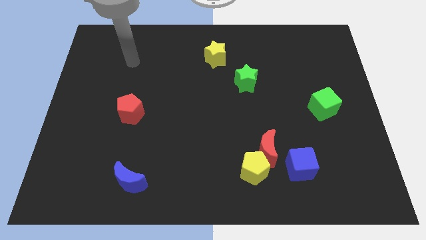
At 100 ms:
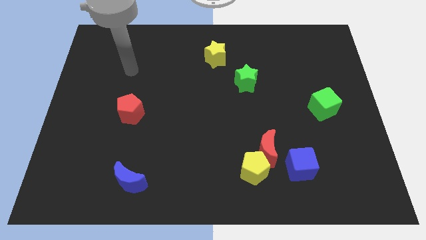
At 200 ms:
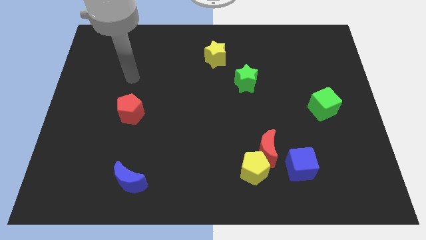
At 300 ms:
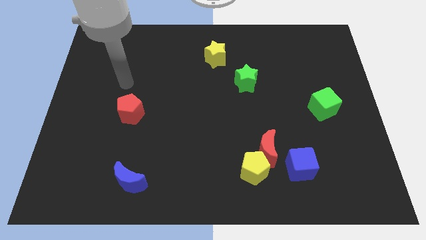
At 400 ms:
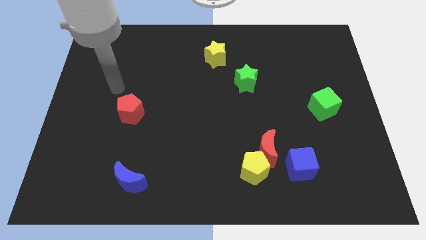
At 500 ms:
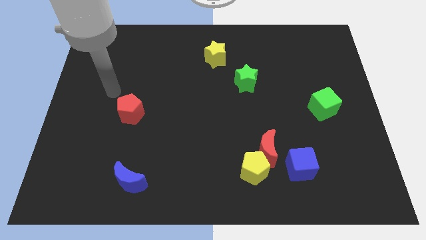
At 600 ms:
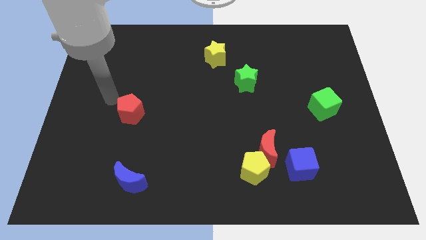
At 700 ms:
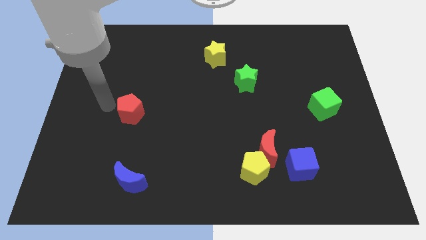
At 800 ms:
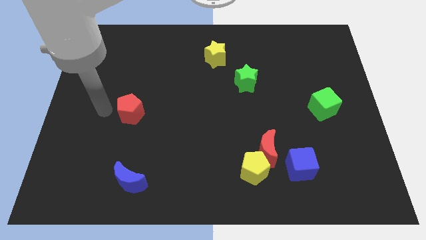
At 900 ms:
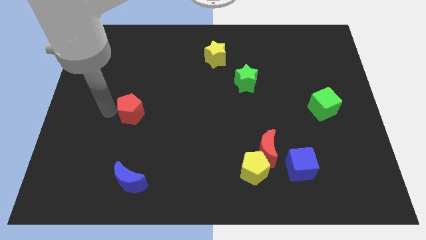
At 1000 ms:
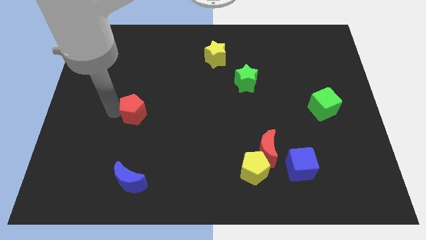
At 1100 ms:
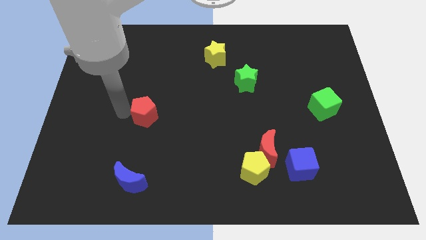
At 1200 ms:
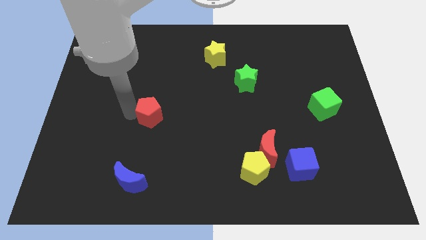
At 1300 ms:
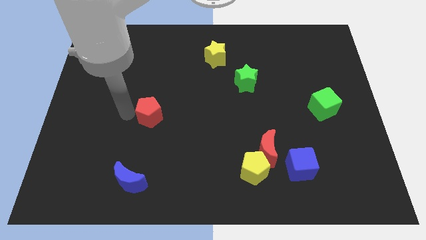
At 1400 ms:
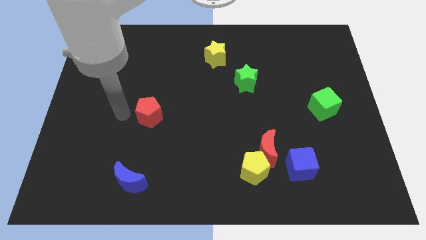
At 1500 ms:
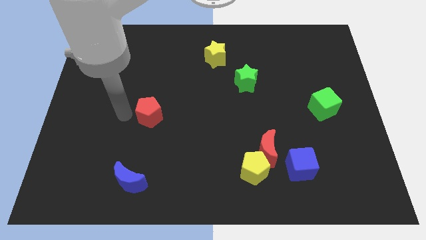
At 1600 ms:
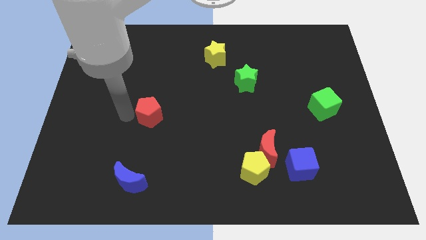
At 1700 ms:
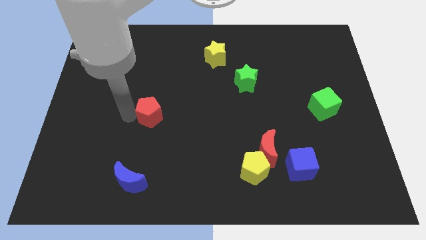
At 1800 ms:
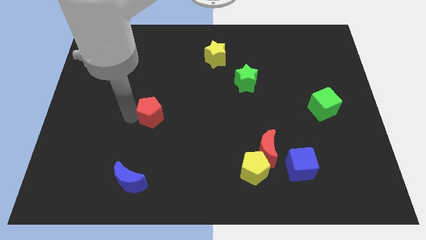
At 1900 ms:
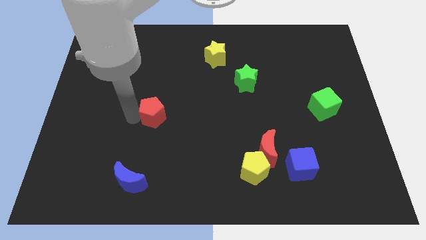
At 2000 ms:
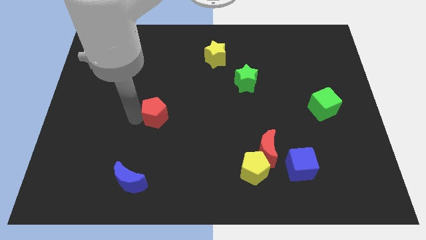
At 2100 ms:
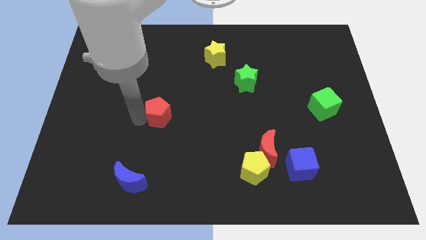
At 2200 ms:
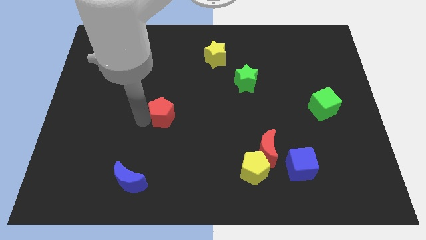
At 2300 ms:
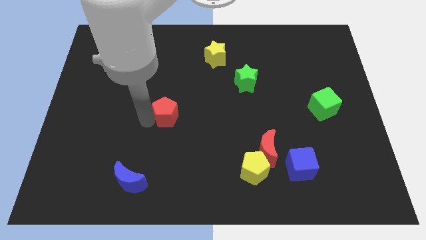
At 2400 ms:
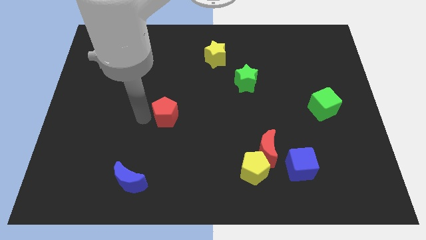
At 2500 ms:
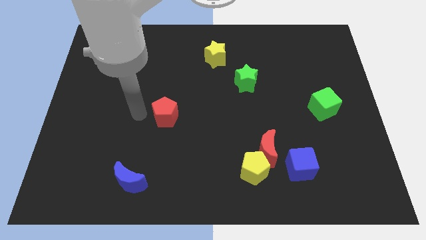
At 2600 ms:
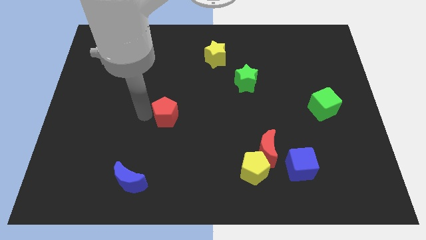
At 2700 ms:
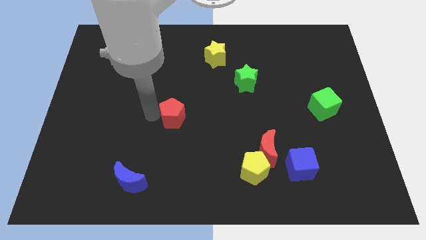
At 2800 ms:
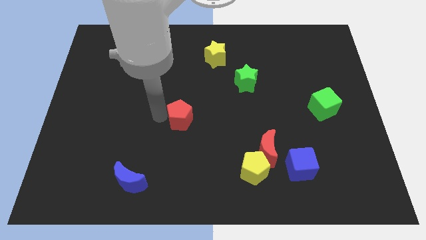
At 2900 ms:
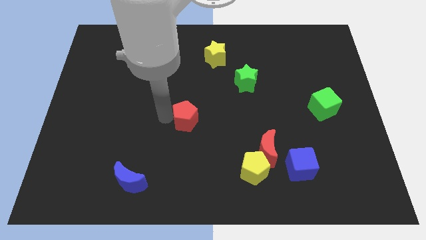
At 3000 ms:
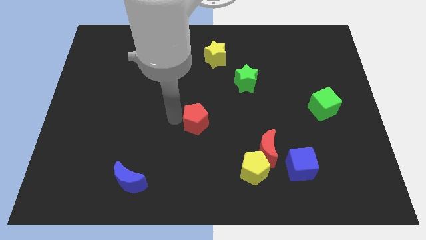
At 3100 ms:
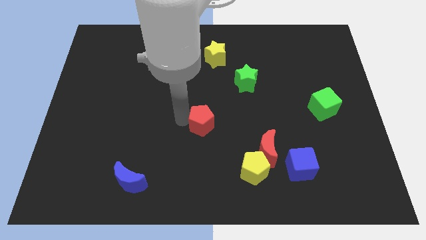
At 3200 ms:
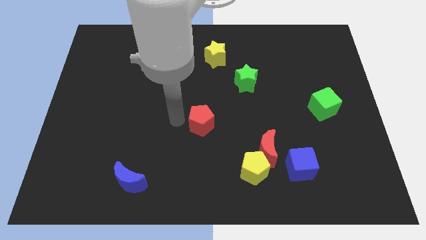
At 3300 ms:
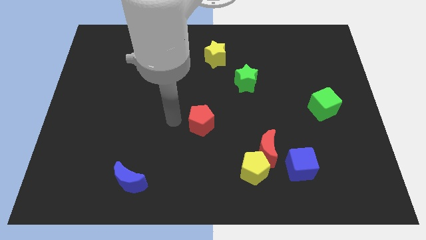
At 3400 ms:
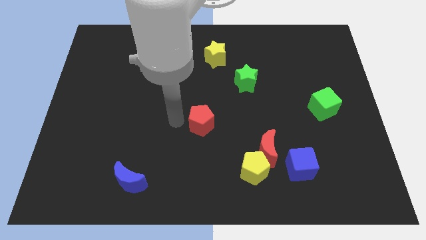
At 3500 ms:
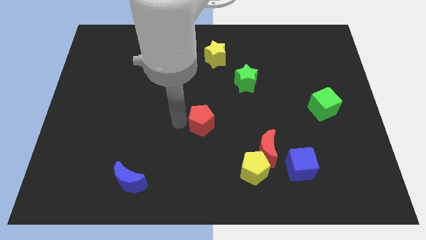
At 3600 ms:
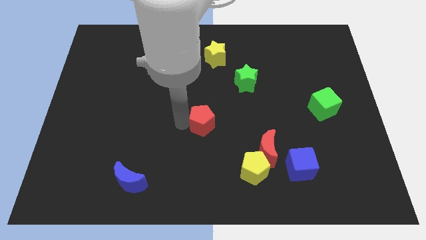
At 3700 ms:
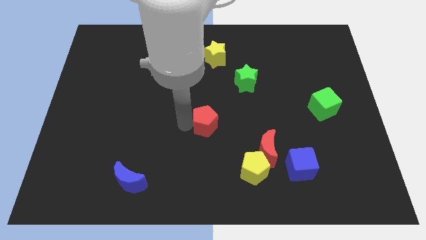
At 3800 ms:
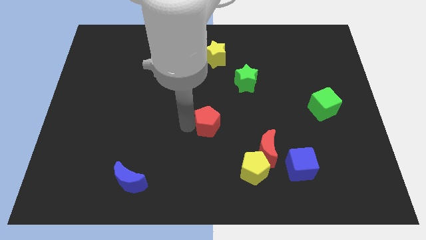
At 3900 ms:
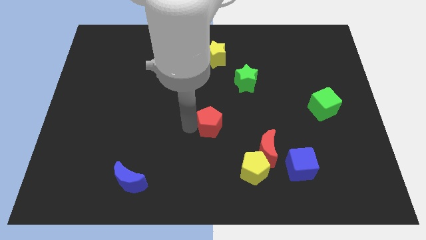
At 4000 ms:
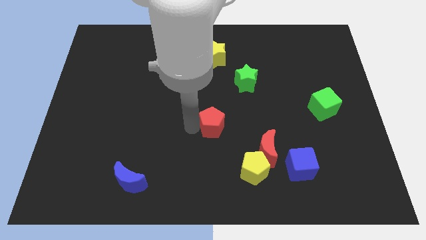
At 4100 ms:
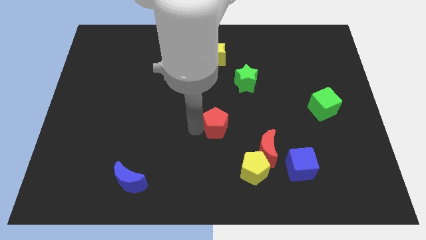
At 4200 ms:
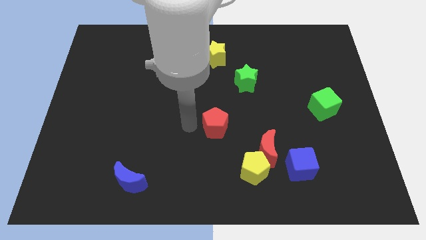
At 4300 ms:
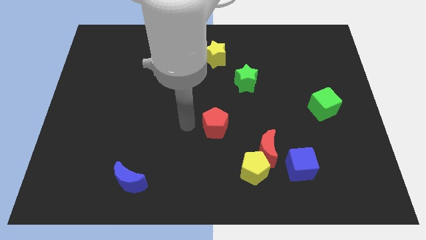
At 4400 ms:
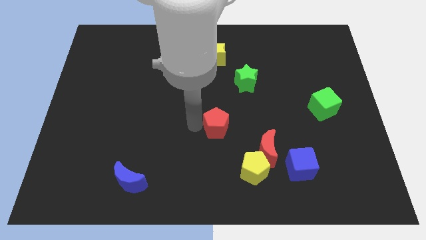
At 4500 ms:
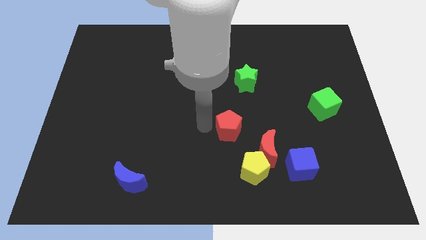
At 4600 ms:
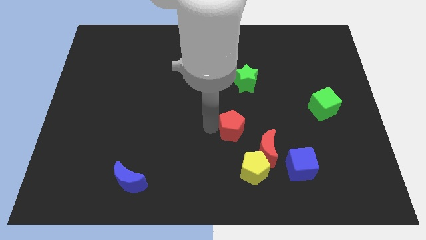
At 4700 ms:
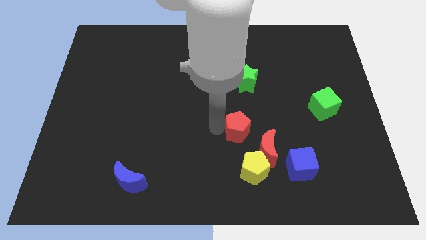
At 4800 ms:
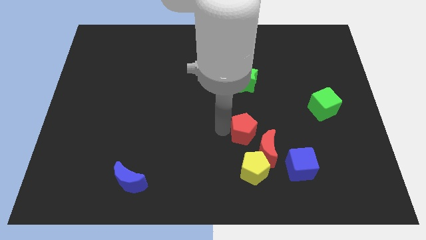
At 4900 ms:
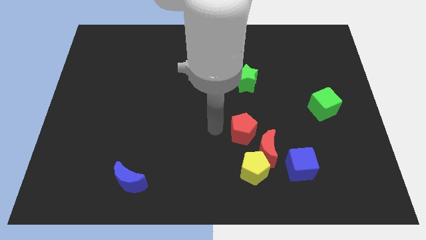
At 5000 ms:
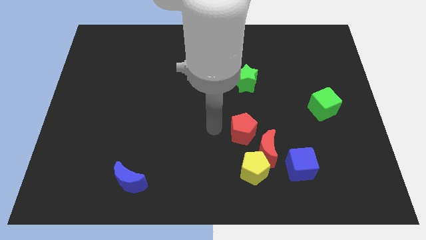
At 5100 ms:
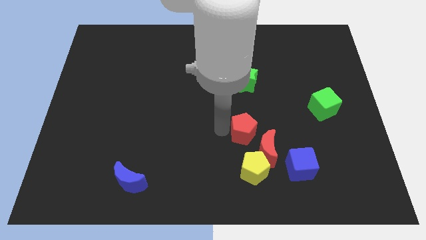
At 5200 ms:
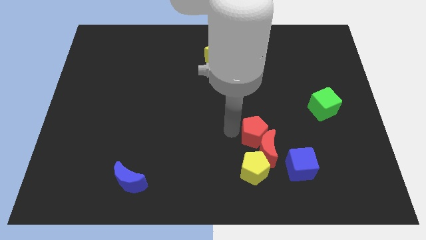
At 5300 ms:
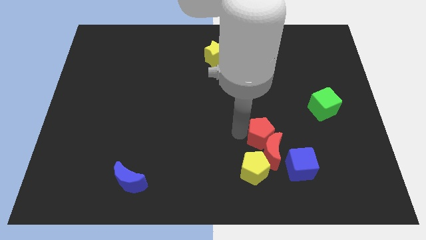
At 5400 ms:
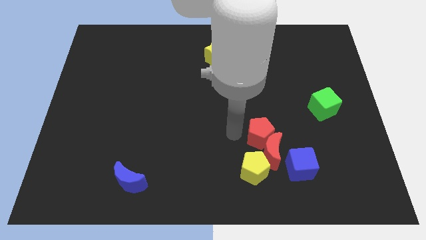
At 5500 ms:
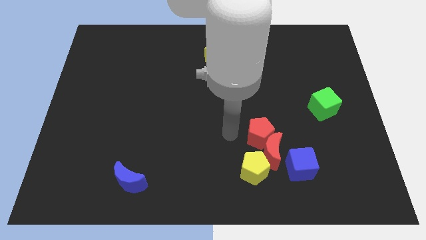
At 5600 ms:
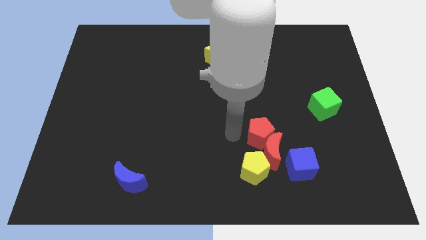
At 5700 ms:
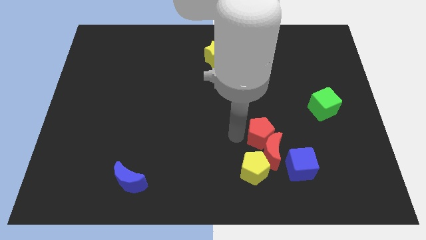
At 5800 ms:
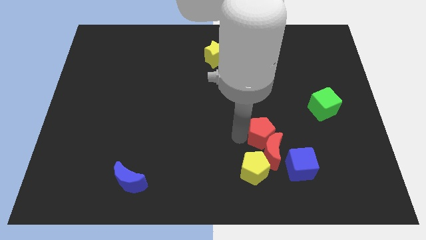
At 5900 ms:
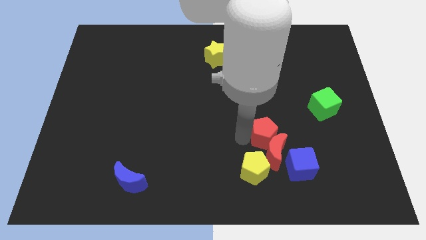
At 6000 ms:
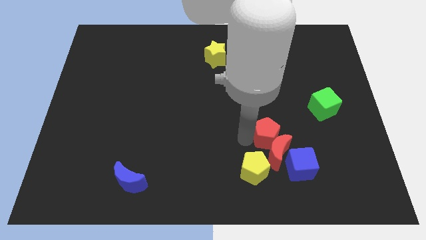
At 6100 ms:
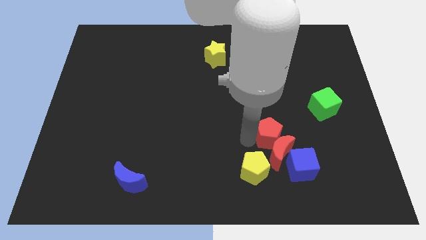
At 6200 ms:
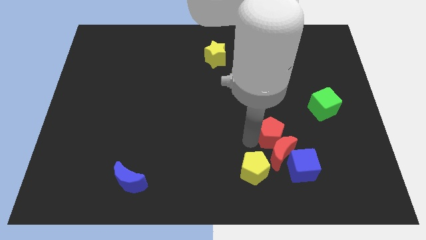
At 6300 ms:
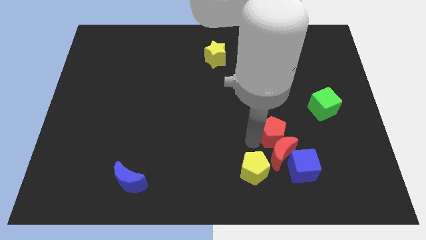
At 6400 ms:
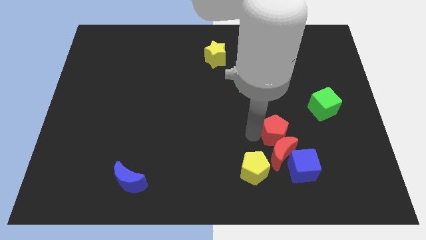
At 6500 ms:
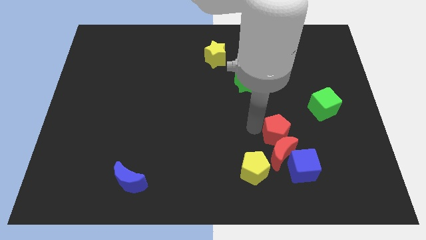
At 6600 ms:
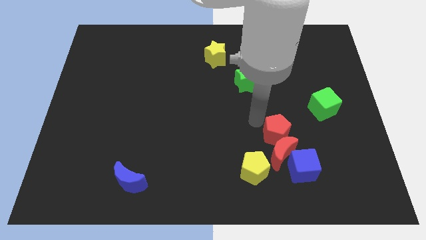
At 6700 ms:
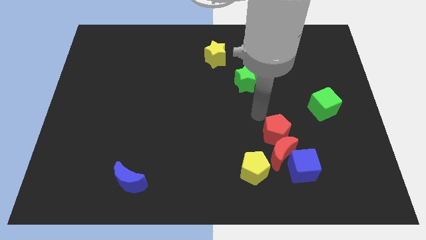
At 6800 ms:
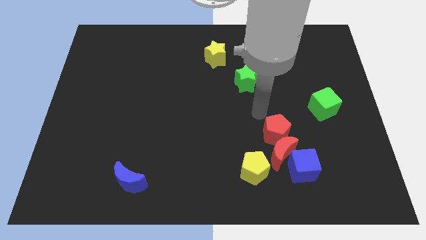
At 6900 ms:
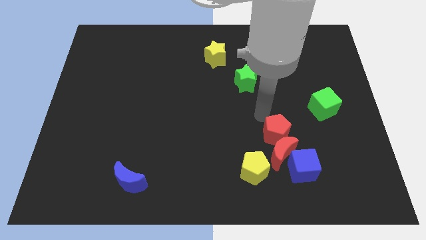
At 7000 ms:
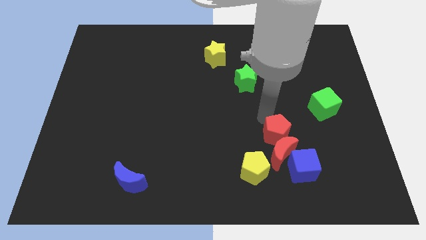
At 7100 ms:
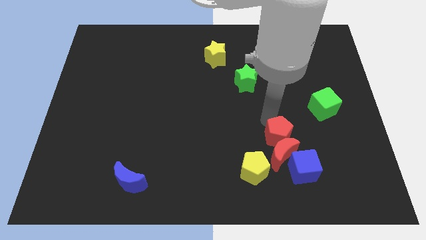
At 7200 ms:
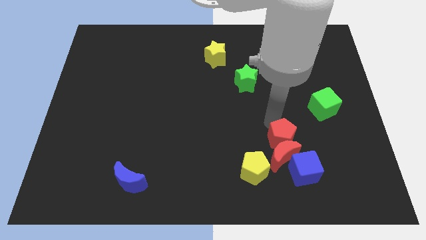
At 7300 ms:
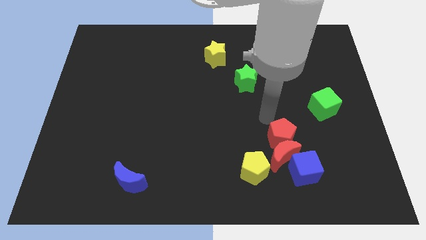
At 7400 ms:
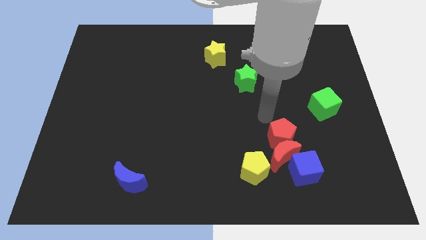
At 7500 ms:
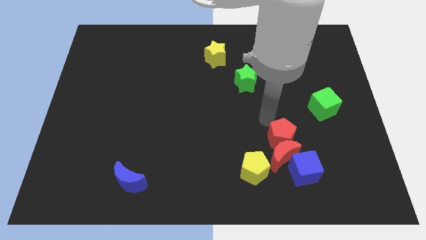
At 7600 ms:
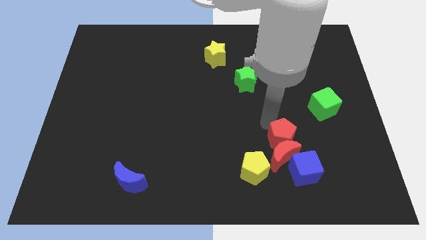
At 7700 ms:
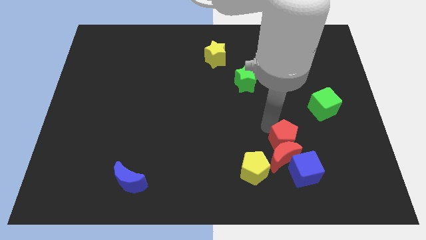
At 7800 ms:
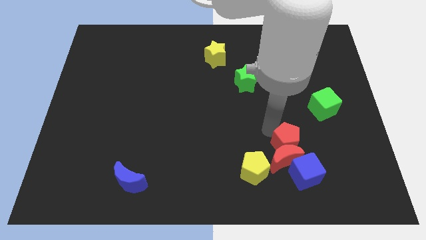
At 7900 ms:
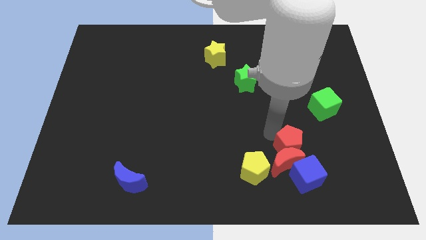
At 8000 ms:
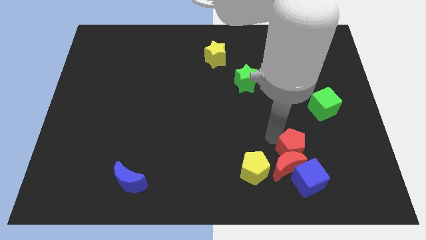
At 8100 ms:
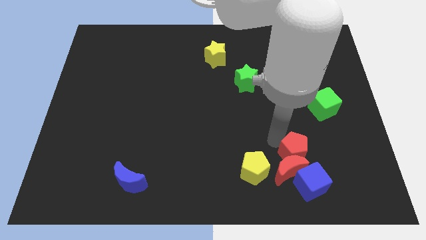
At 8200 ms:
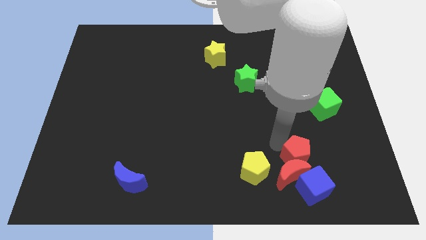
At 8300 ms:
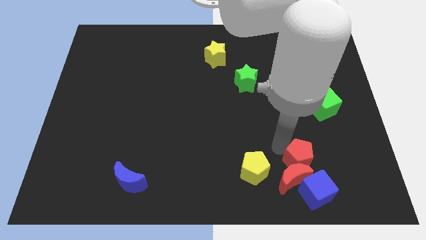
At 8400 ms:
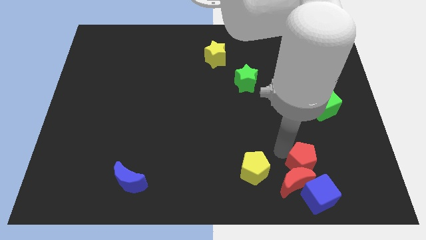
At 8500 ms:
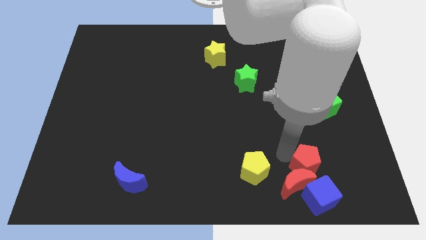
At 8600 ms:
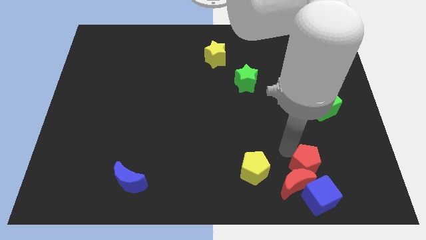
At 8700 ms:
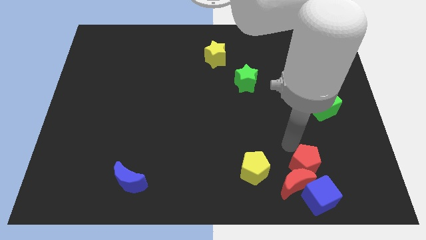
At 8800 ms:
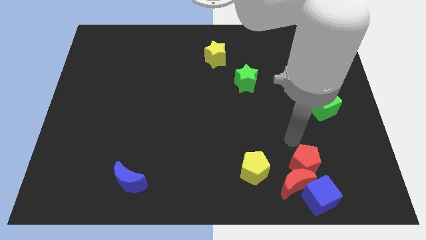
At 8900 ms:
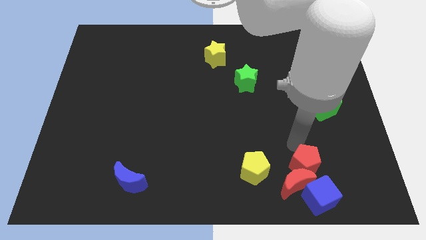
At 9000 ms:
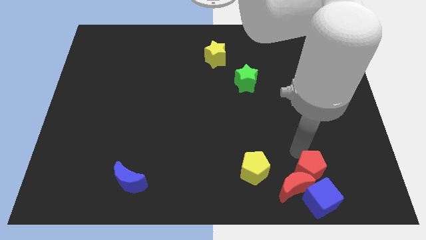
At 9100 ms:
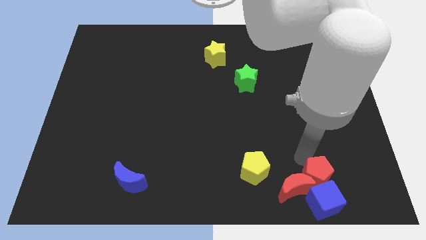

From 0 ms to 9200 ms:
move the red pentagon next to the blue cube
